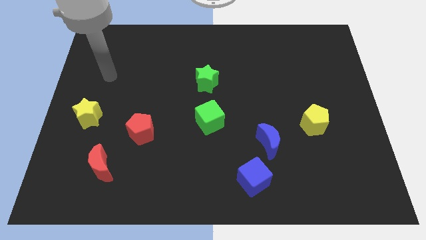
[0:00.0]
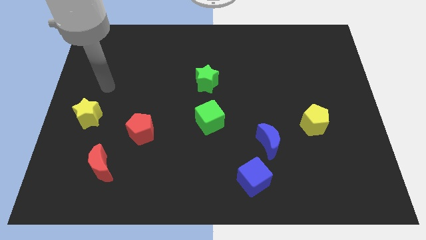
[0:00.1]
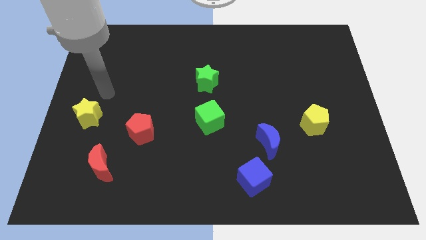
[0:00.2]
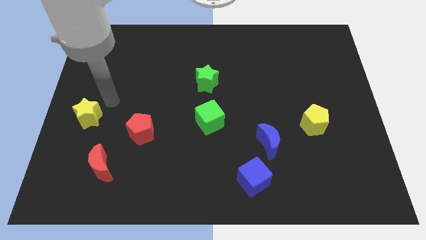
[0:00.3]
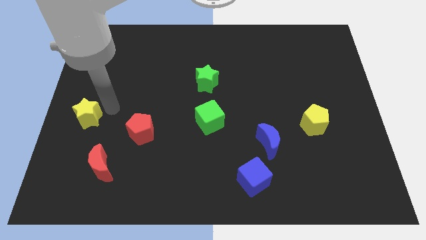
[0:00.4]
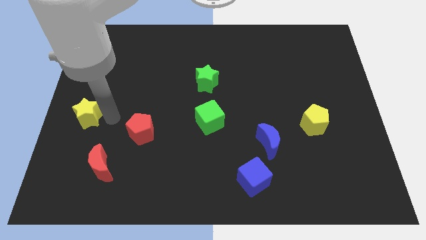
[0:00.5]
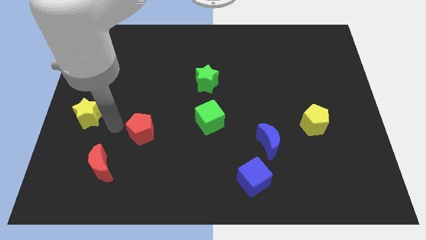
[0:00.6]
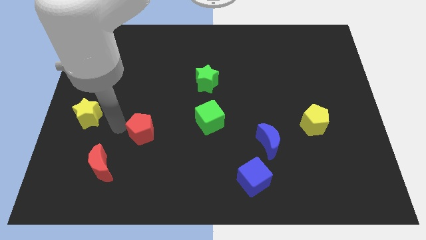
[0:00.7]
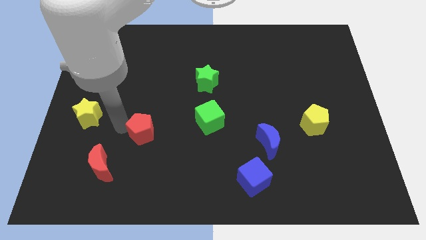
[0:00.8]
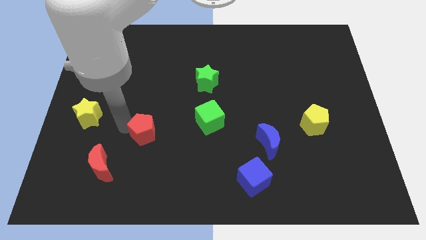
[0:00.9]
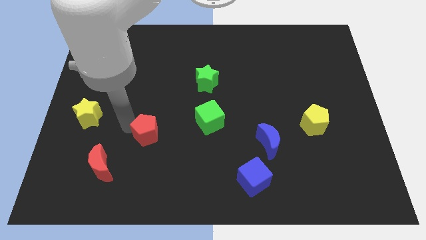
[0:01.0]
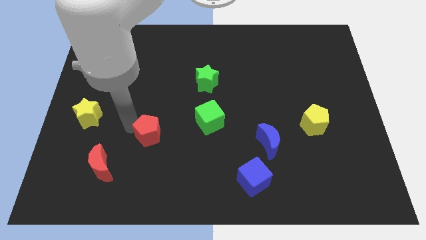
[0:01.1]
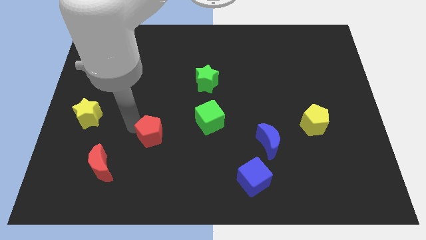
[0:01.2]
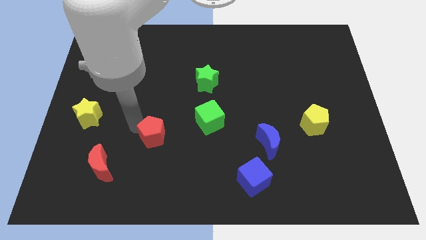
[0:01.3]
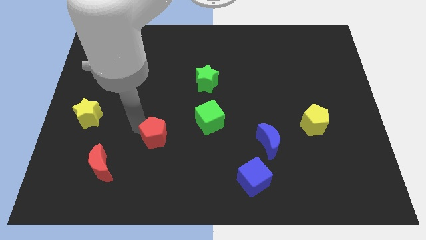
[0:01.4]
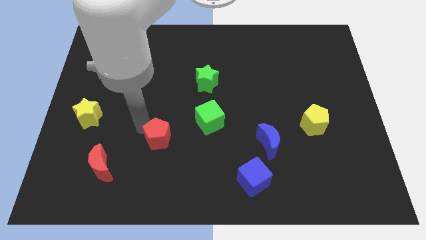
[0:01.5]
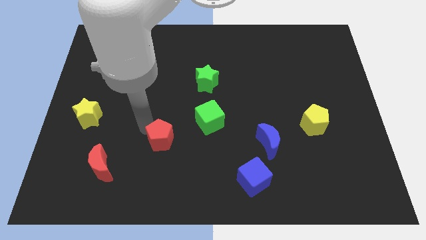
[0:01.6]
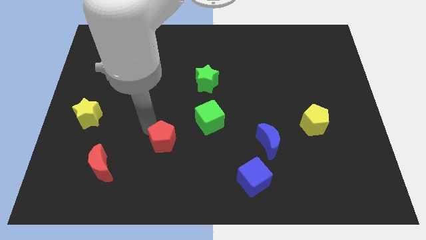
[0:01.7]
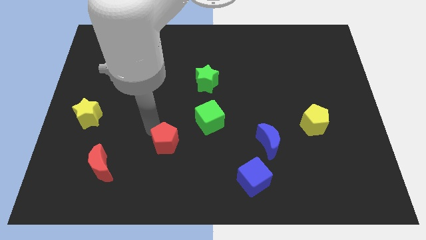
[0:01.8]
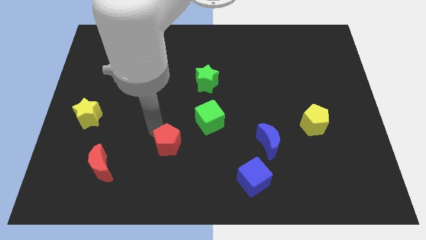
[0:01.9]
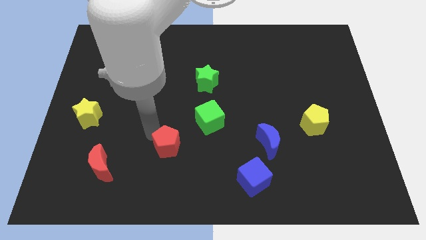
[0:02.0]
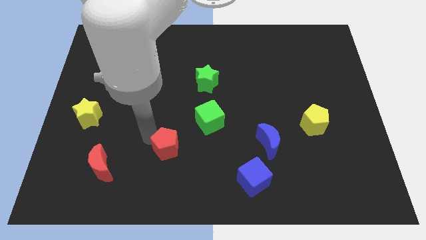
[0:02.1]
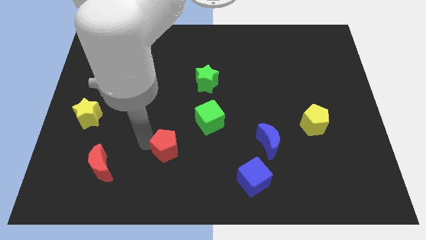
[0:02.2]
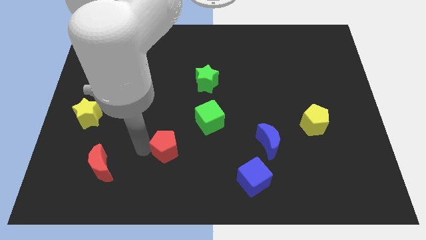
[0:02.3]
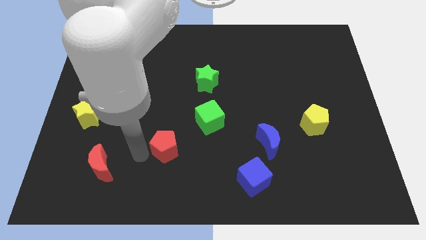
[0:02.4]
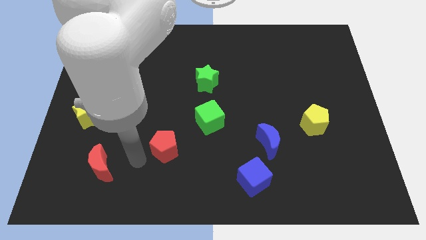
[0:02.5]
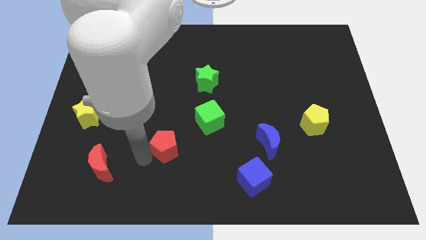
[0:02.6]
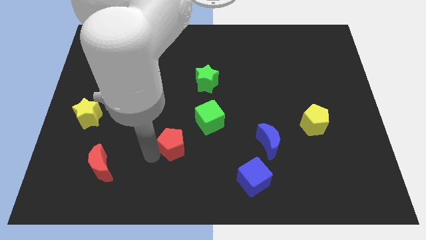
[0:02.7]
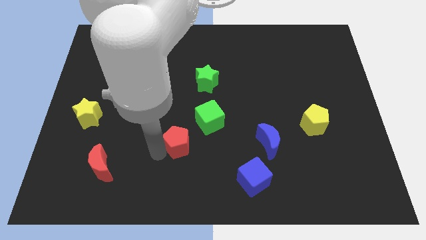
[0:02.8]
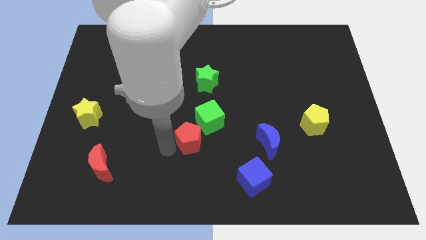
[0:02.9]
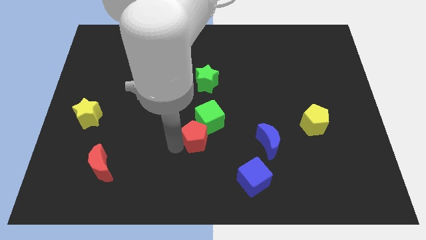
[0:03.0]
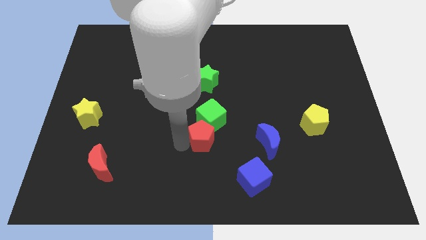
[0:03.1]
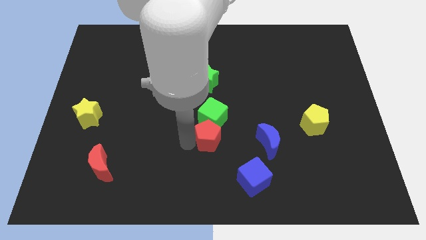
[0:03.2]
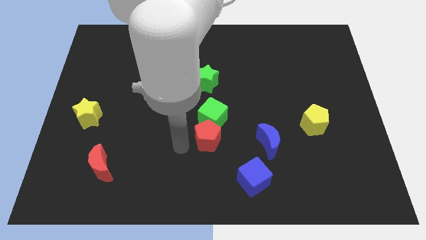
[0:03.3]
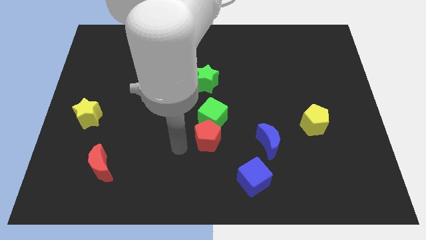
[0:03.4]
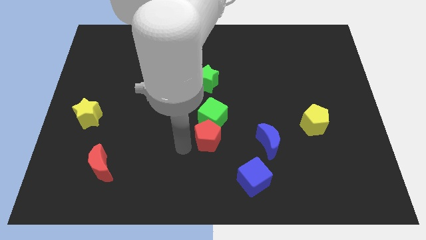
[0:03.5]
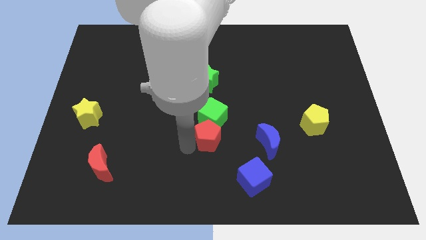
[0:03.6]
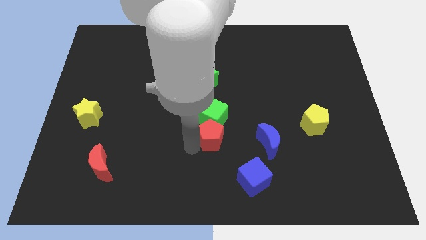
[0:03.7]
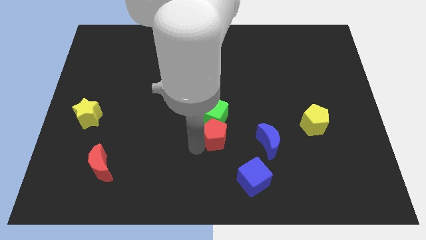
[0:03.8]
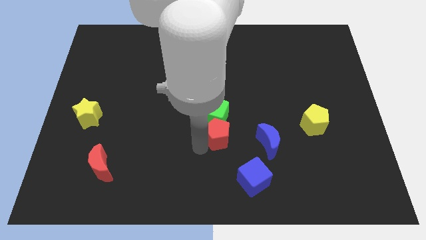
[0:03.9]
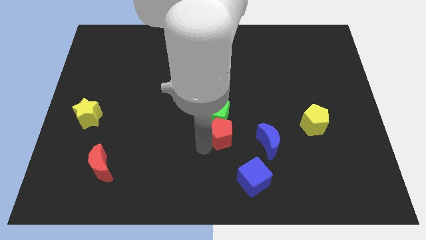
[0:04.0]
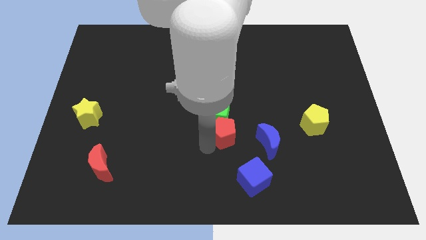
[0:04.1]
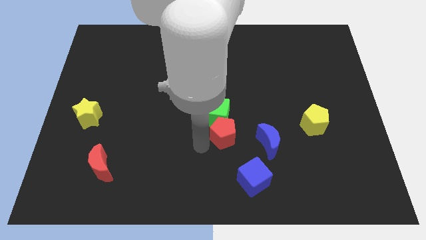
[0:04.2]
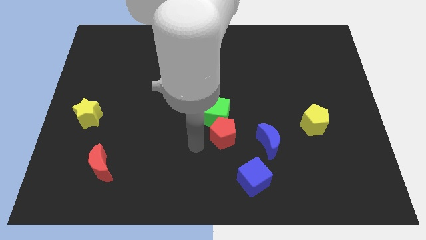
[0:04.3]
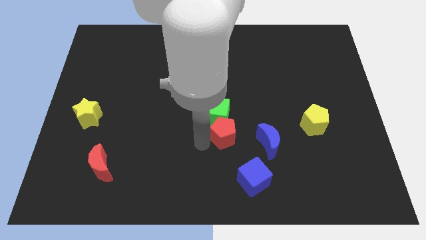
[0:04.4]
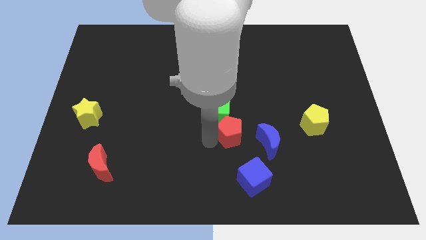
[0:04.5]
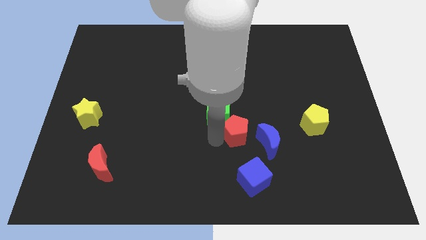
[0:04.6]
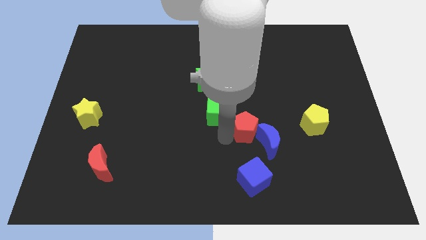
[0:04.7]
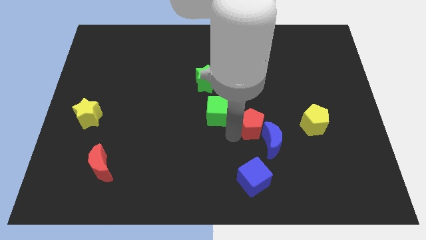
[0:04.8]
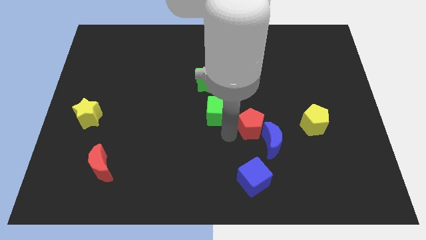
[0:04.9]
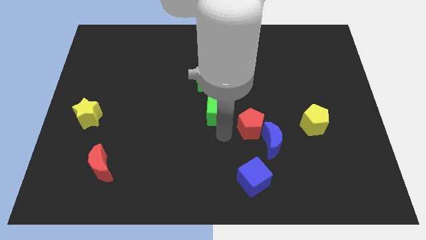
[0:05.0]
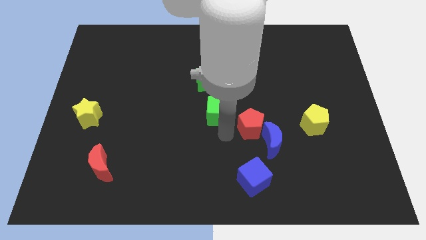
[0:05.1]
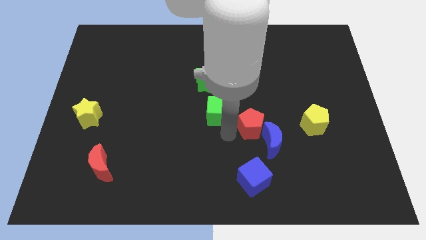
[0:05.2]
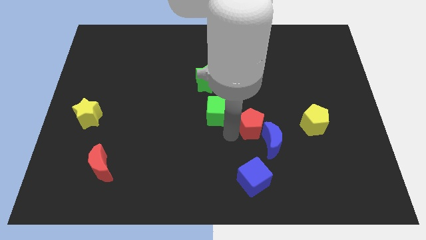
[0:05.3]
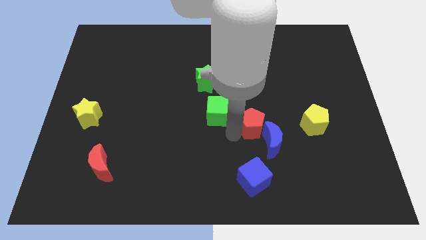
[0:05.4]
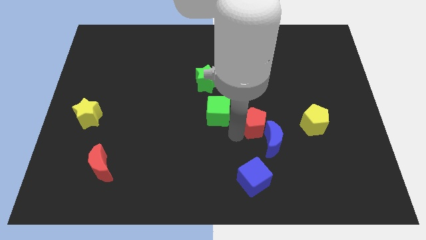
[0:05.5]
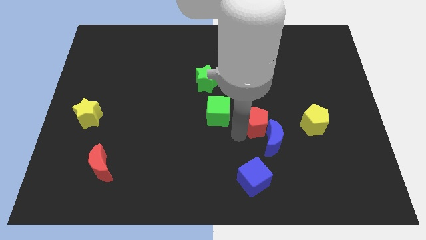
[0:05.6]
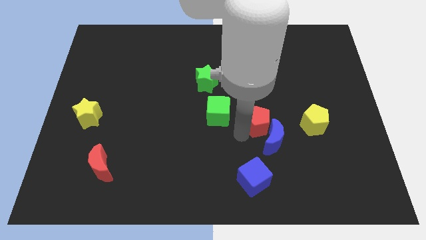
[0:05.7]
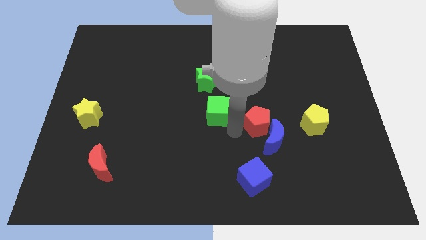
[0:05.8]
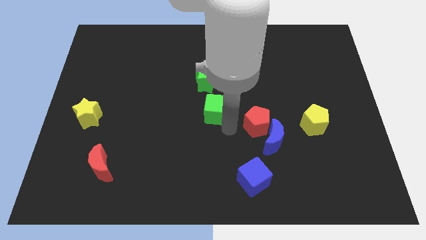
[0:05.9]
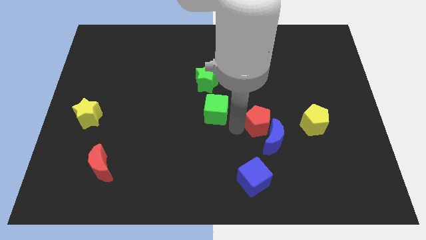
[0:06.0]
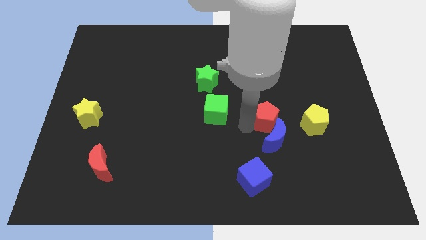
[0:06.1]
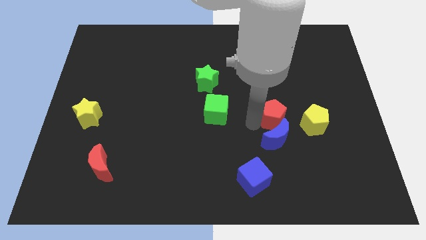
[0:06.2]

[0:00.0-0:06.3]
put the red pentagon diagonally up and to the right of the blue moon

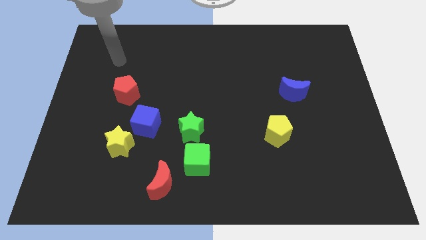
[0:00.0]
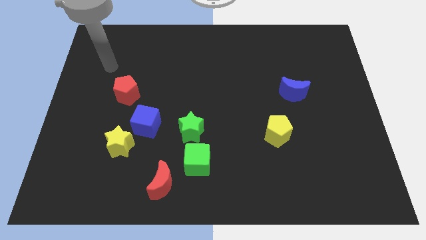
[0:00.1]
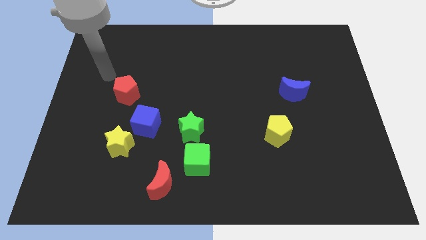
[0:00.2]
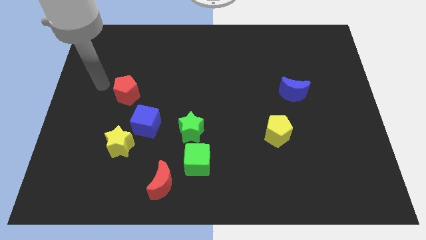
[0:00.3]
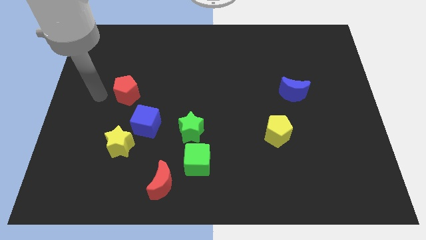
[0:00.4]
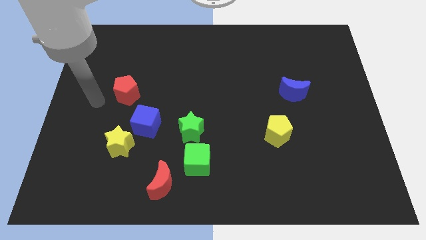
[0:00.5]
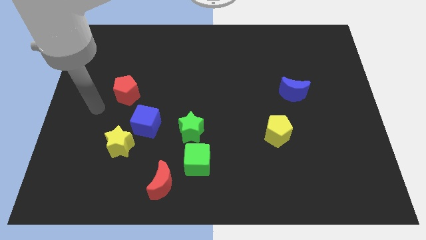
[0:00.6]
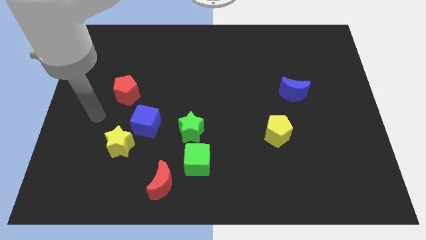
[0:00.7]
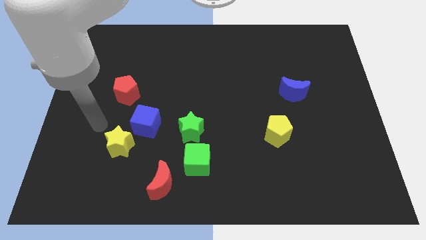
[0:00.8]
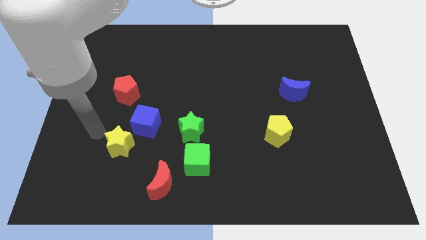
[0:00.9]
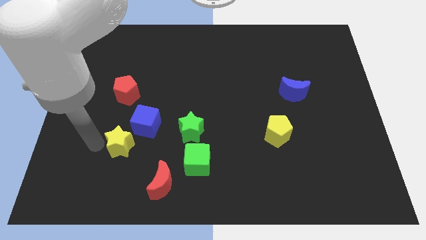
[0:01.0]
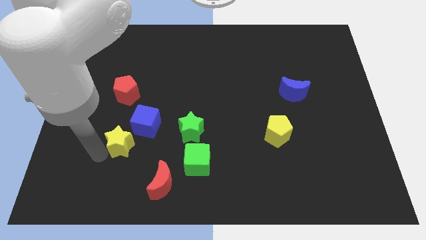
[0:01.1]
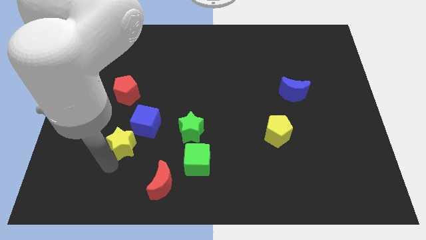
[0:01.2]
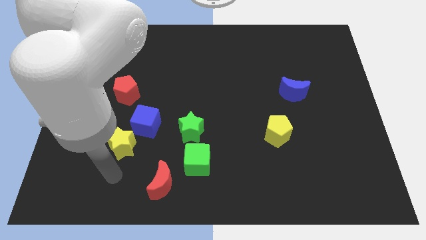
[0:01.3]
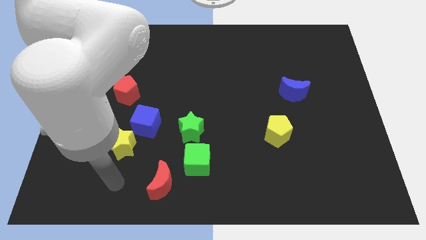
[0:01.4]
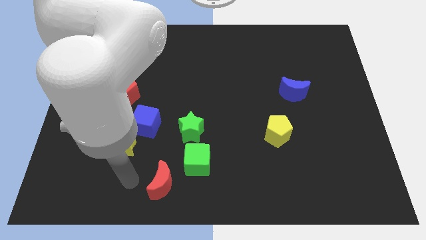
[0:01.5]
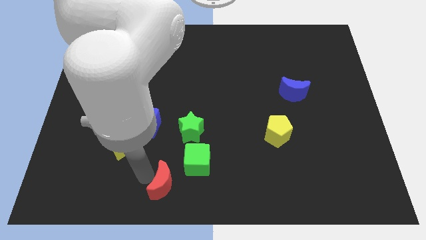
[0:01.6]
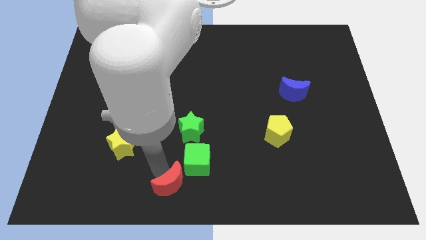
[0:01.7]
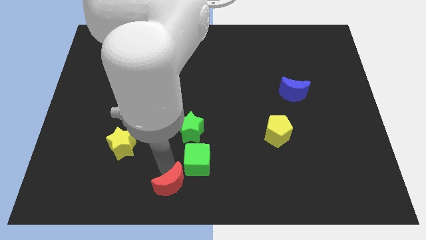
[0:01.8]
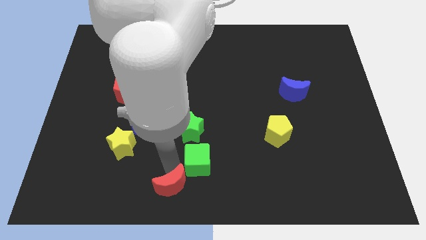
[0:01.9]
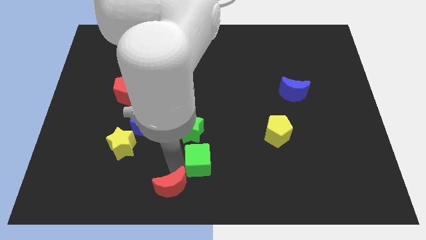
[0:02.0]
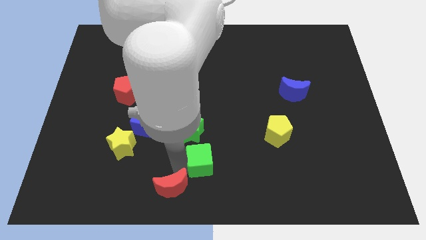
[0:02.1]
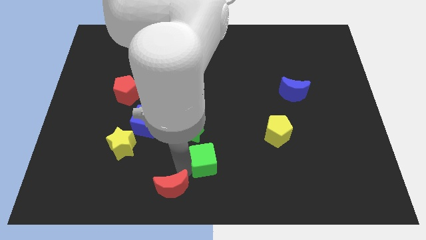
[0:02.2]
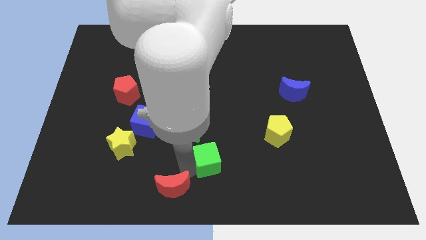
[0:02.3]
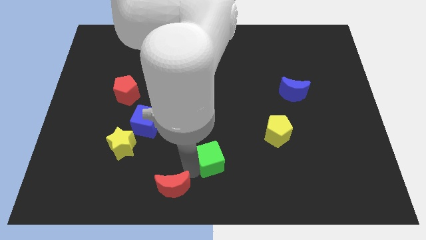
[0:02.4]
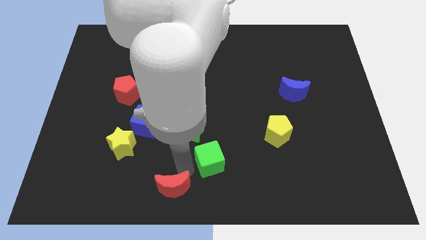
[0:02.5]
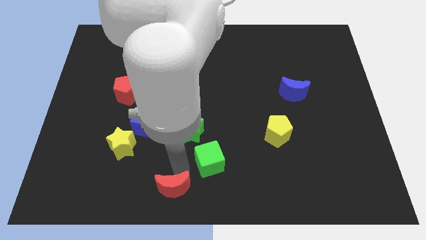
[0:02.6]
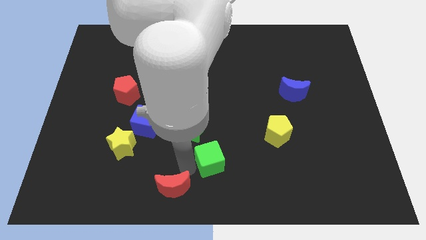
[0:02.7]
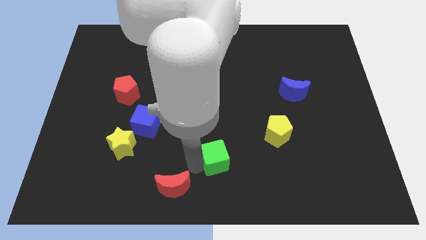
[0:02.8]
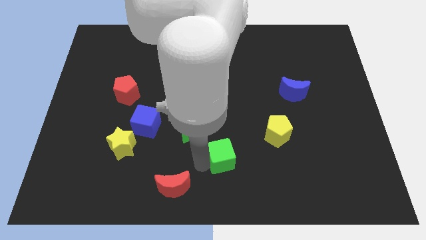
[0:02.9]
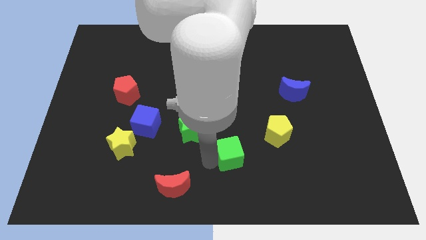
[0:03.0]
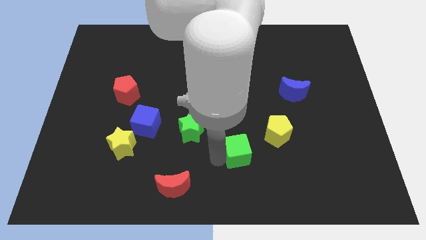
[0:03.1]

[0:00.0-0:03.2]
move the green cube to the bottom left of the yellow pentagon
